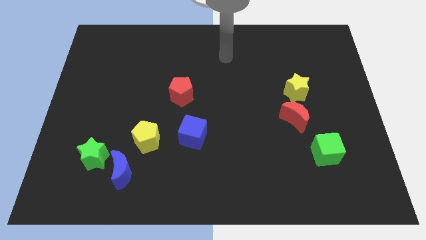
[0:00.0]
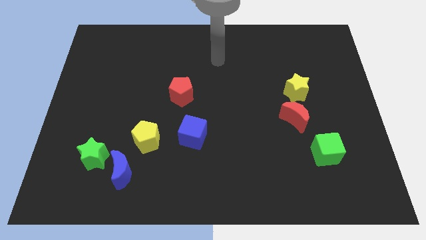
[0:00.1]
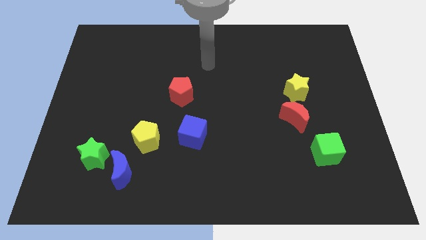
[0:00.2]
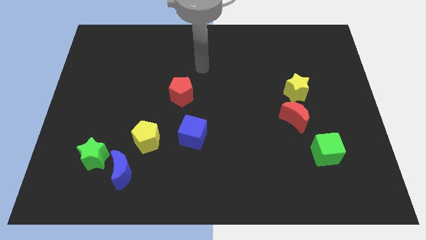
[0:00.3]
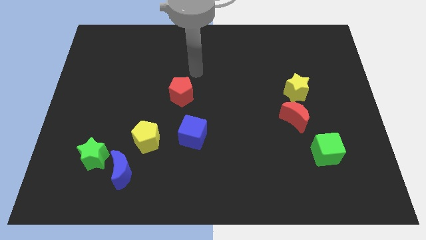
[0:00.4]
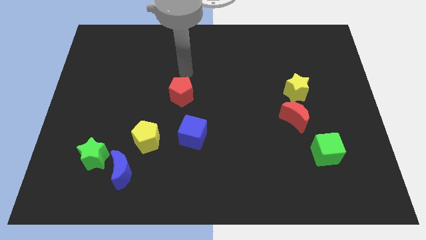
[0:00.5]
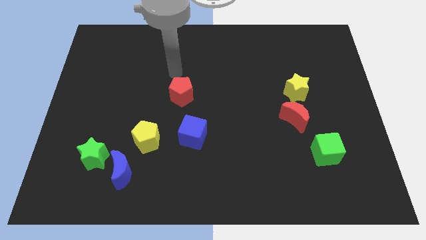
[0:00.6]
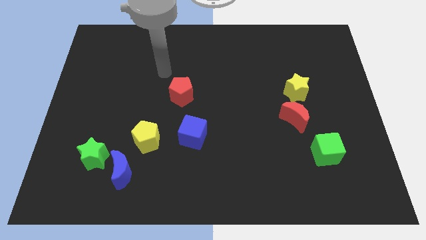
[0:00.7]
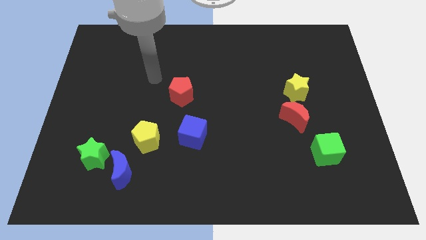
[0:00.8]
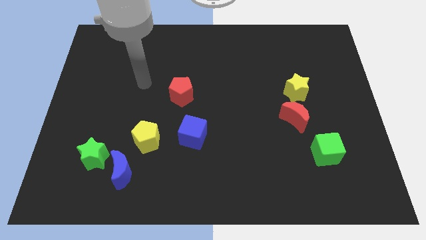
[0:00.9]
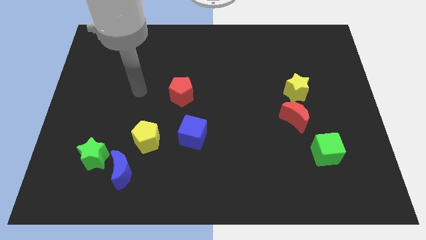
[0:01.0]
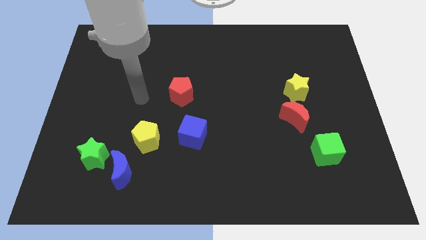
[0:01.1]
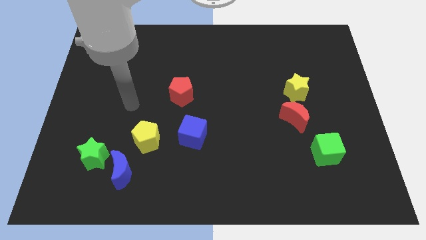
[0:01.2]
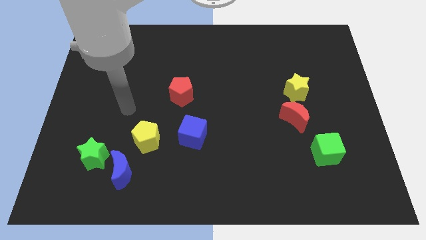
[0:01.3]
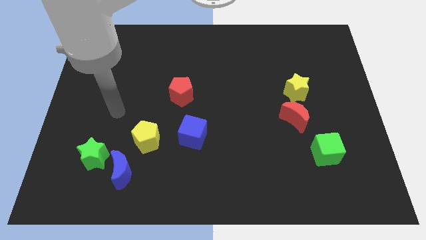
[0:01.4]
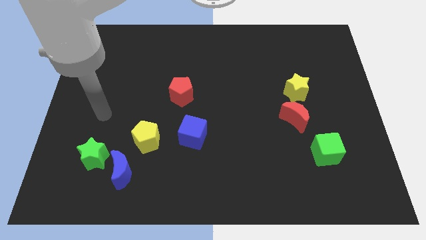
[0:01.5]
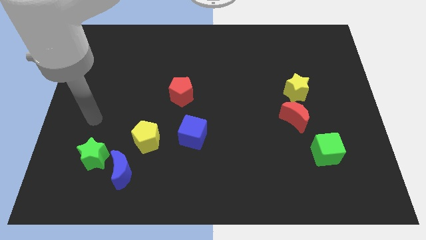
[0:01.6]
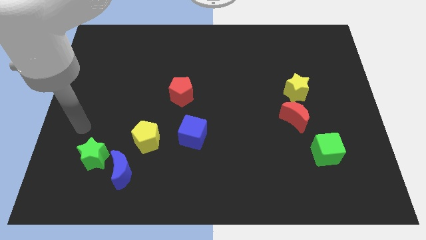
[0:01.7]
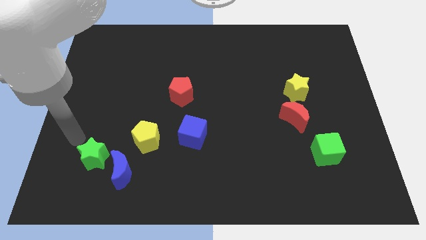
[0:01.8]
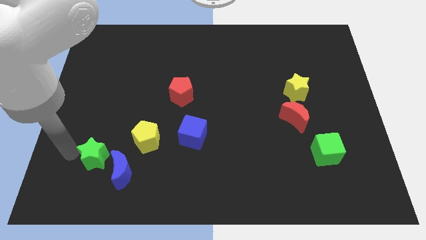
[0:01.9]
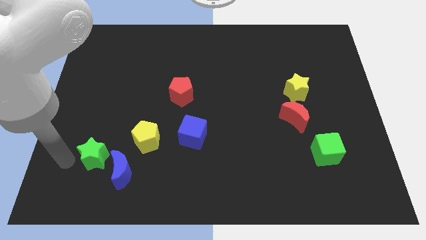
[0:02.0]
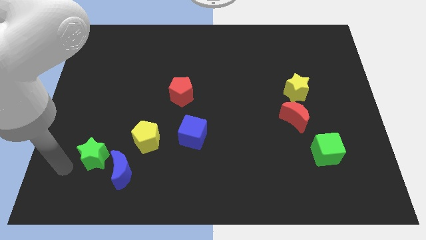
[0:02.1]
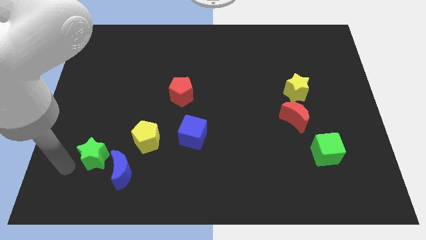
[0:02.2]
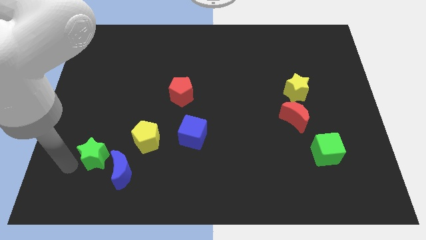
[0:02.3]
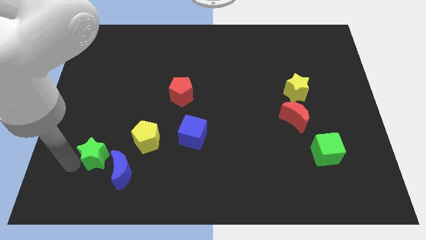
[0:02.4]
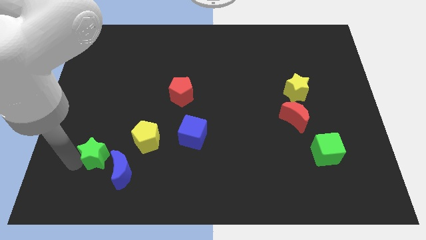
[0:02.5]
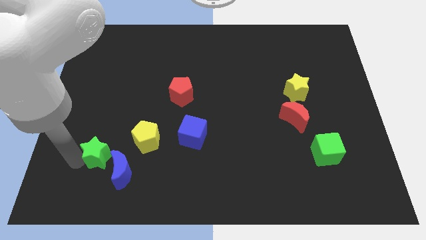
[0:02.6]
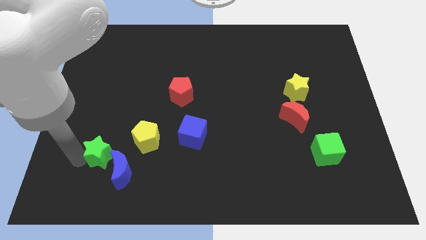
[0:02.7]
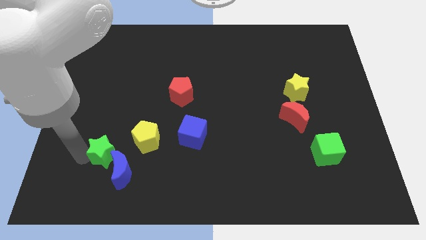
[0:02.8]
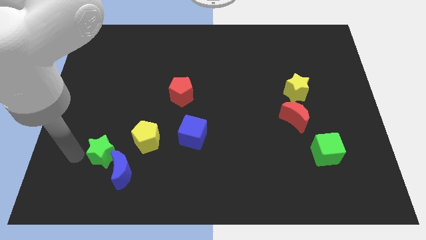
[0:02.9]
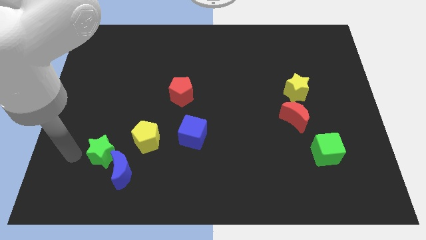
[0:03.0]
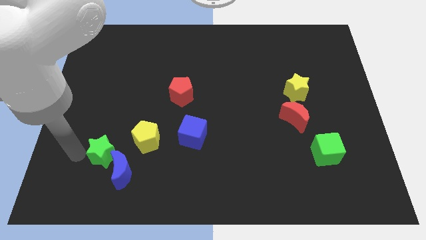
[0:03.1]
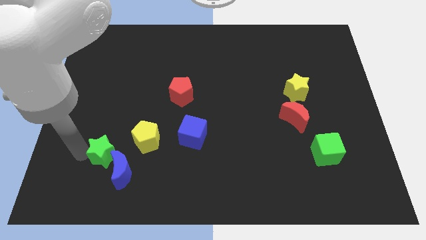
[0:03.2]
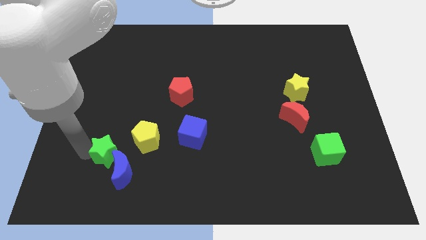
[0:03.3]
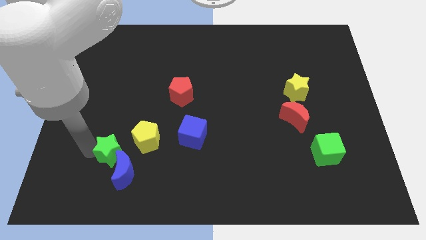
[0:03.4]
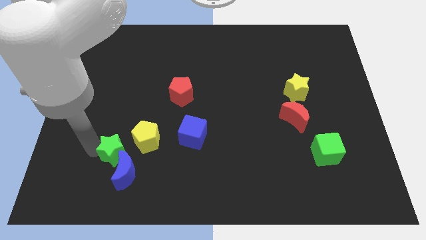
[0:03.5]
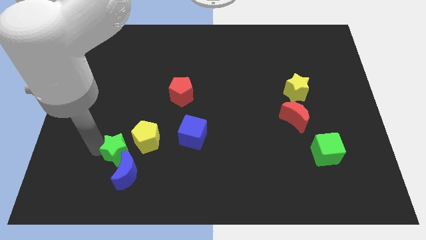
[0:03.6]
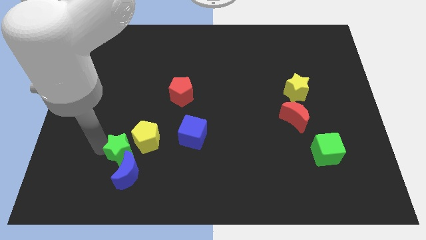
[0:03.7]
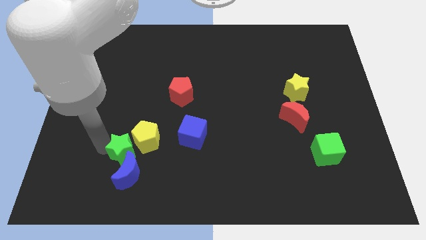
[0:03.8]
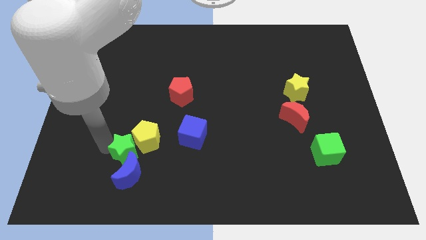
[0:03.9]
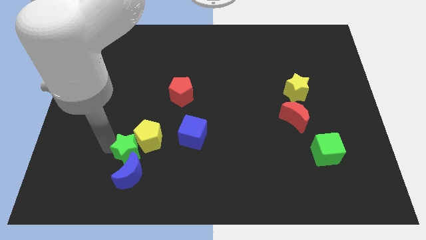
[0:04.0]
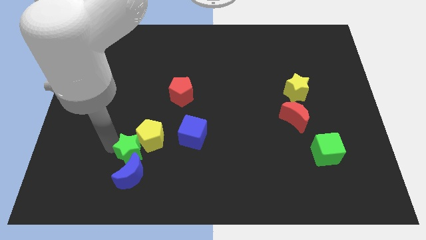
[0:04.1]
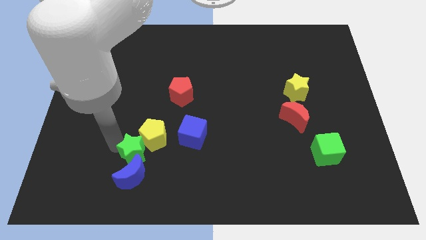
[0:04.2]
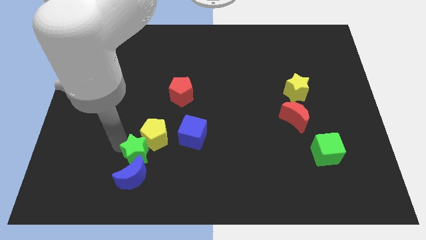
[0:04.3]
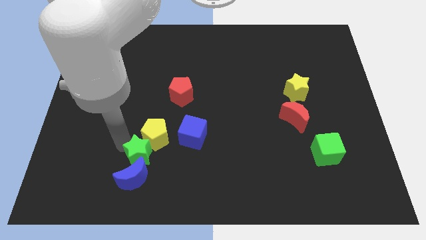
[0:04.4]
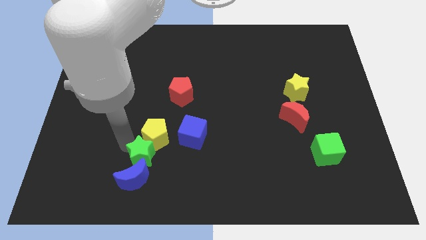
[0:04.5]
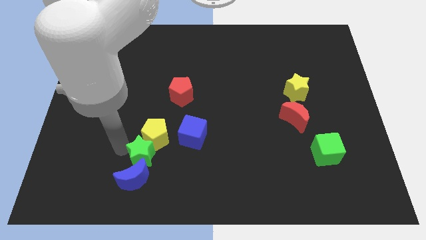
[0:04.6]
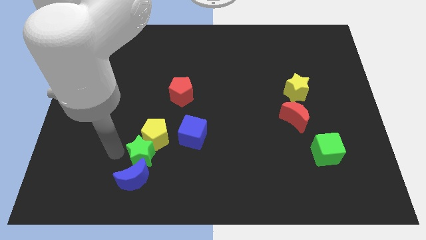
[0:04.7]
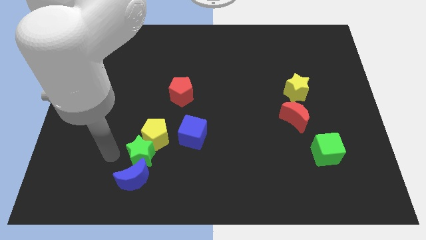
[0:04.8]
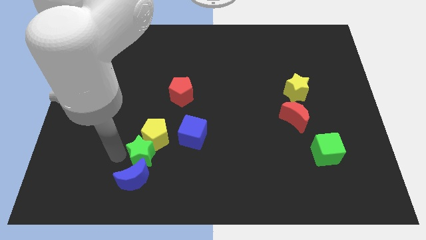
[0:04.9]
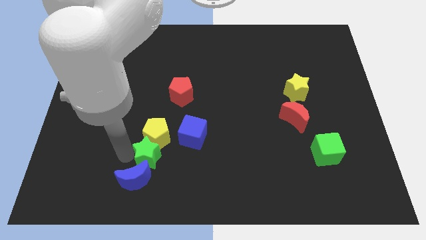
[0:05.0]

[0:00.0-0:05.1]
put the green star to the bottom left side of the blue cube

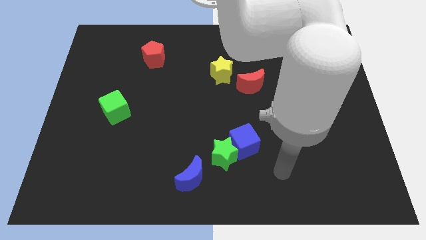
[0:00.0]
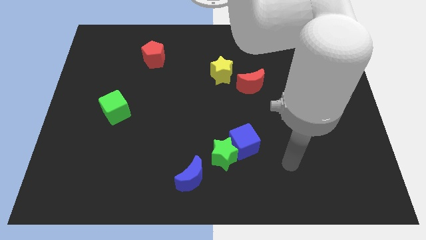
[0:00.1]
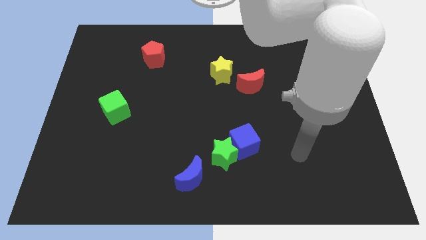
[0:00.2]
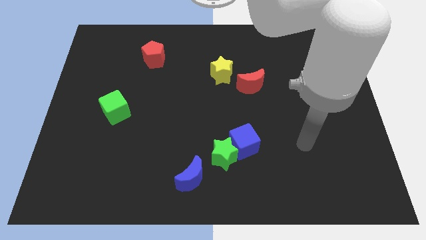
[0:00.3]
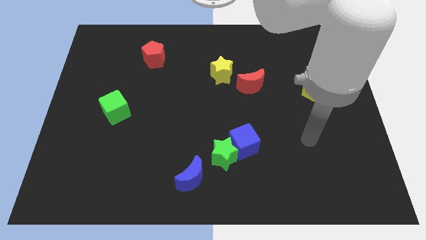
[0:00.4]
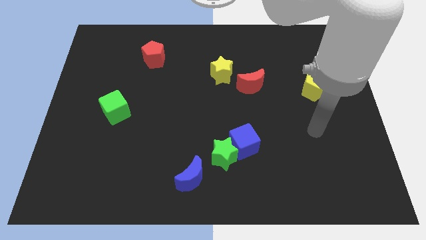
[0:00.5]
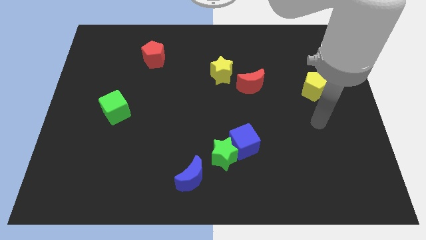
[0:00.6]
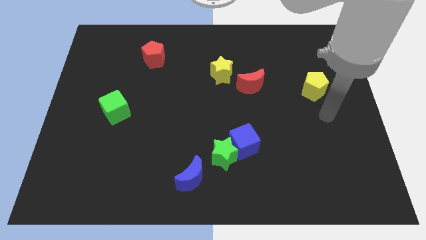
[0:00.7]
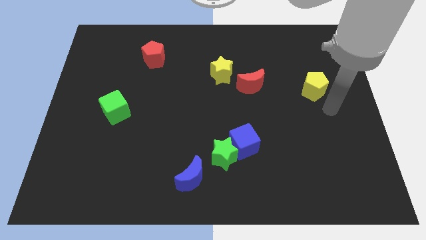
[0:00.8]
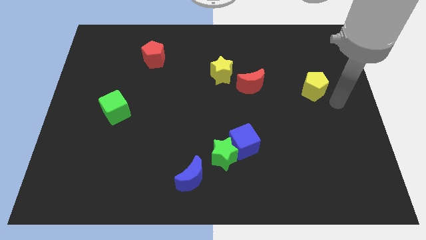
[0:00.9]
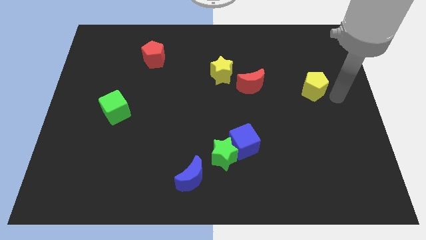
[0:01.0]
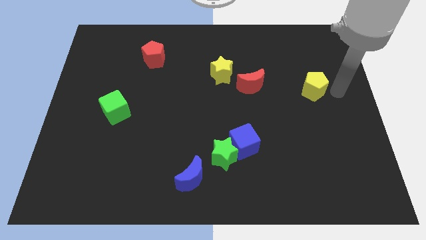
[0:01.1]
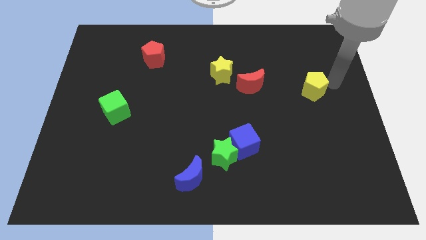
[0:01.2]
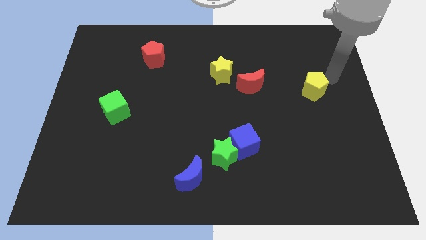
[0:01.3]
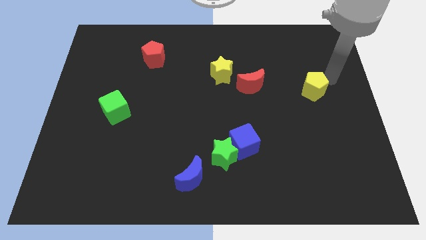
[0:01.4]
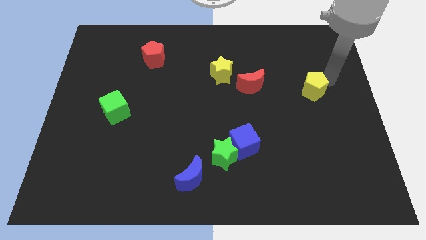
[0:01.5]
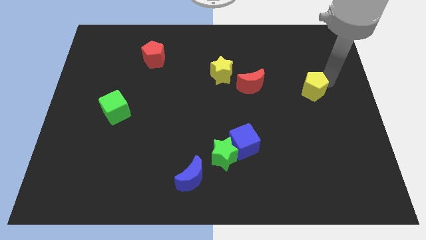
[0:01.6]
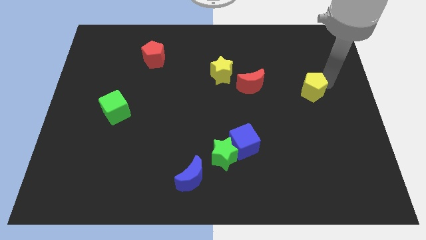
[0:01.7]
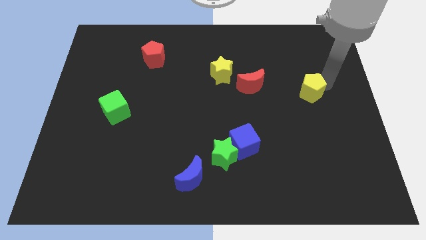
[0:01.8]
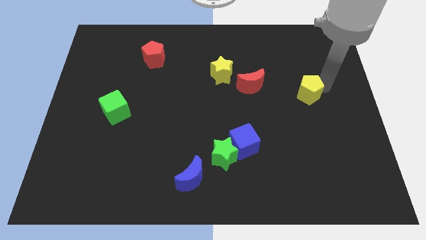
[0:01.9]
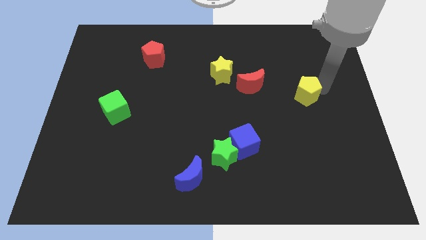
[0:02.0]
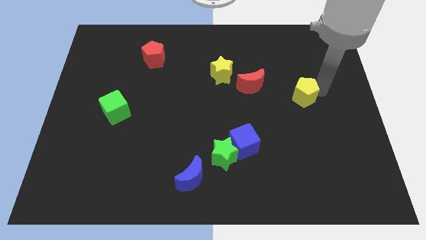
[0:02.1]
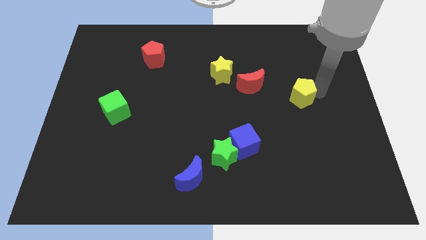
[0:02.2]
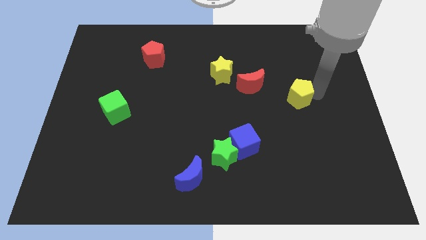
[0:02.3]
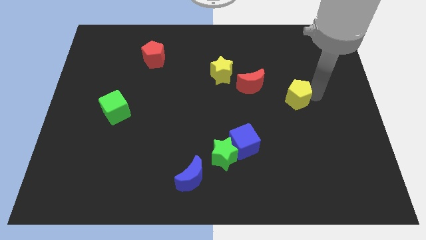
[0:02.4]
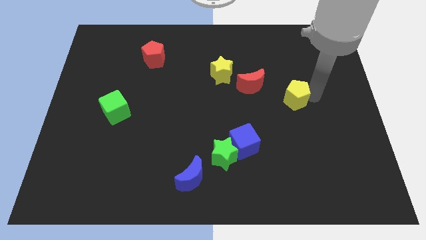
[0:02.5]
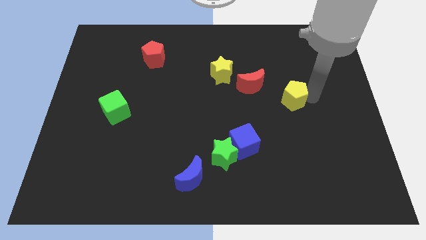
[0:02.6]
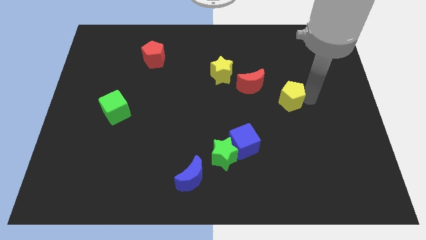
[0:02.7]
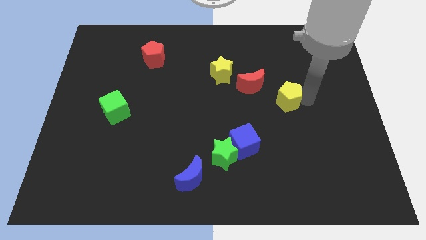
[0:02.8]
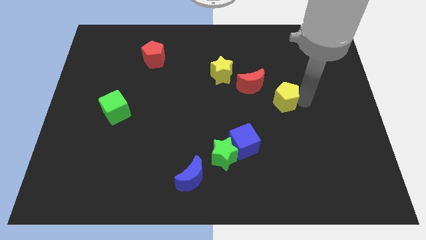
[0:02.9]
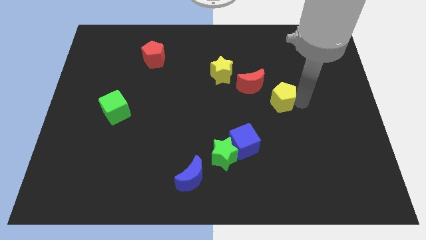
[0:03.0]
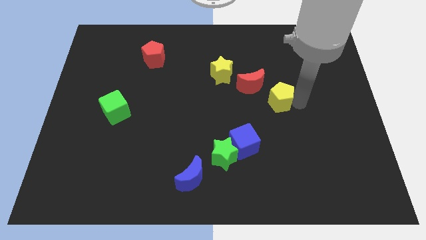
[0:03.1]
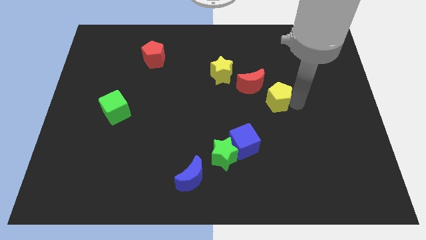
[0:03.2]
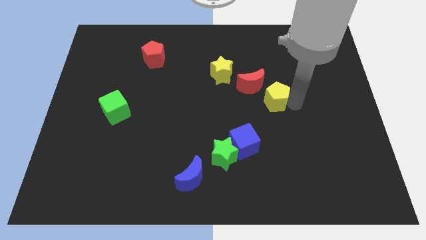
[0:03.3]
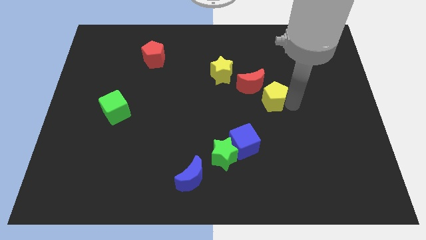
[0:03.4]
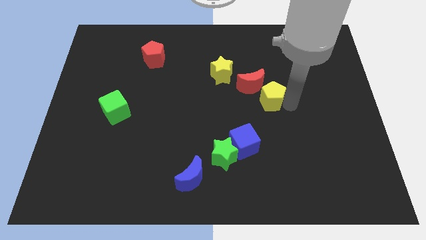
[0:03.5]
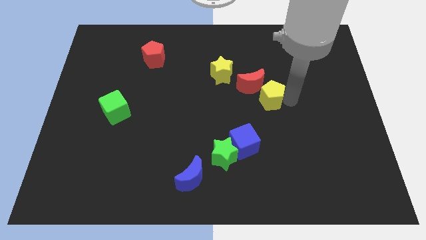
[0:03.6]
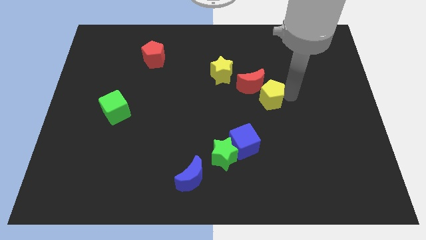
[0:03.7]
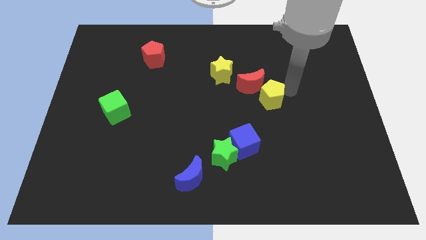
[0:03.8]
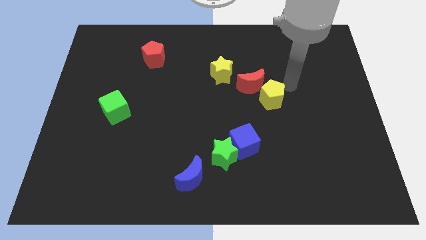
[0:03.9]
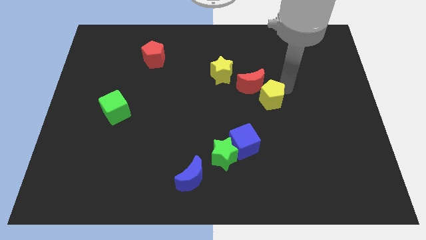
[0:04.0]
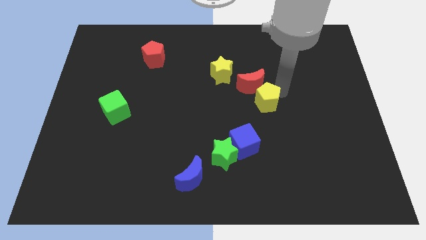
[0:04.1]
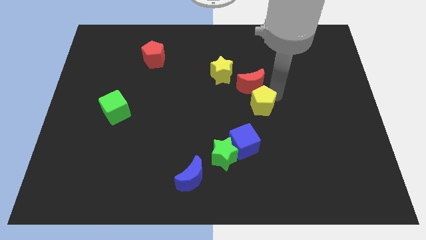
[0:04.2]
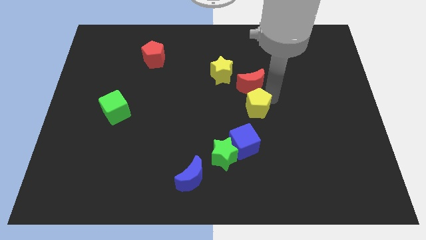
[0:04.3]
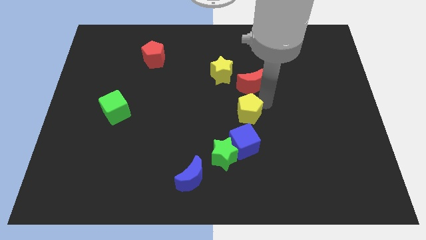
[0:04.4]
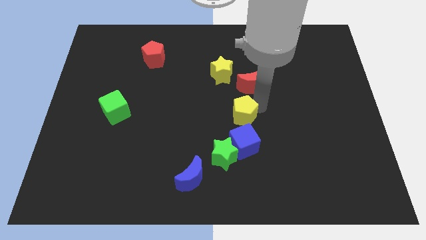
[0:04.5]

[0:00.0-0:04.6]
push the yellow pentagon above the green star
